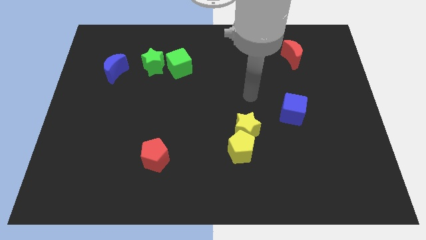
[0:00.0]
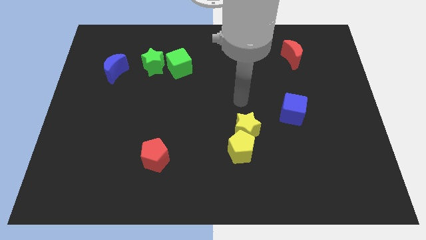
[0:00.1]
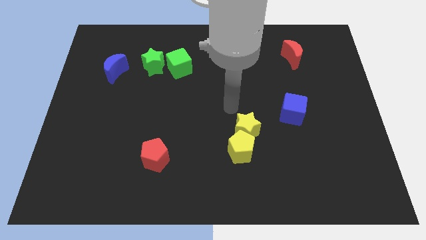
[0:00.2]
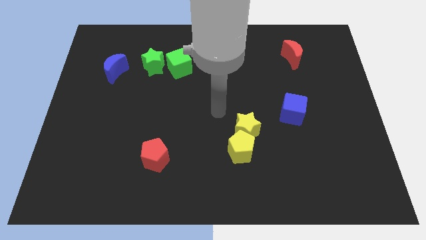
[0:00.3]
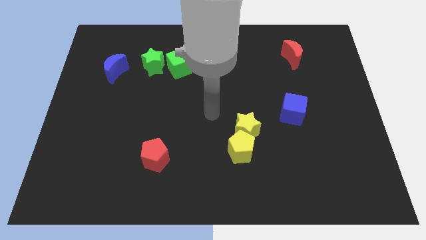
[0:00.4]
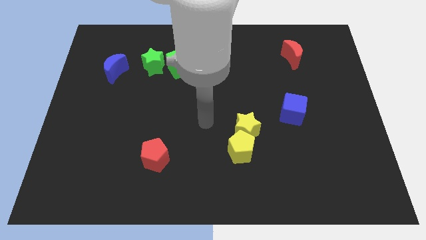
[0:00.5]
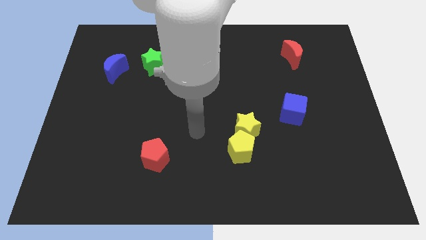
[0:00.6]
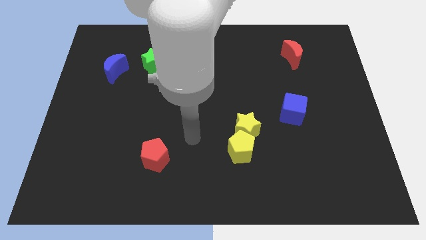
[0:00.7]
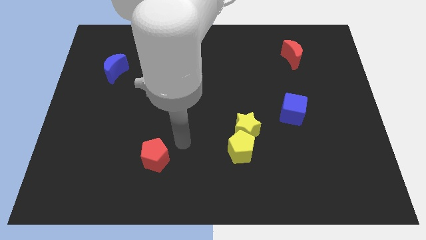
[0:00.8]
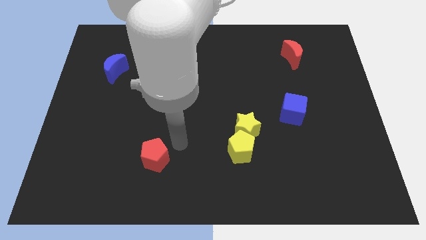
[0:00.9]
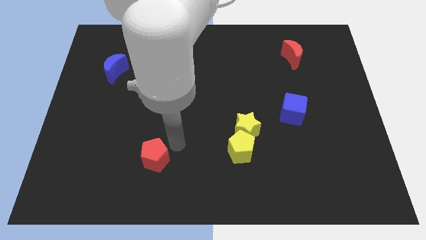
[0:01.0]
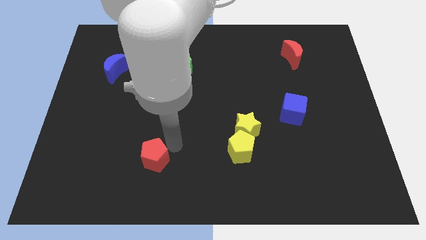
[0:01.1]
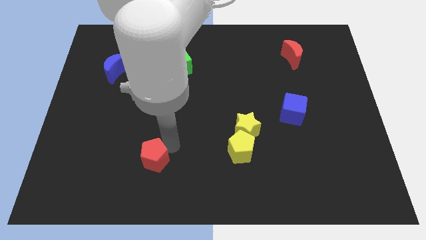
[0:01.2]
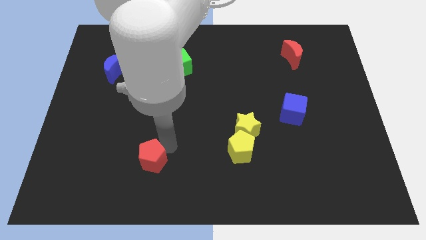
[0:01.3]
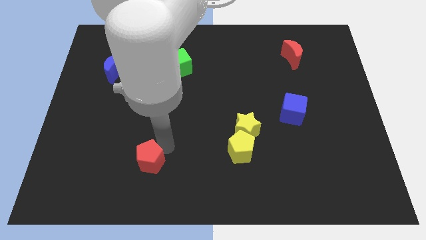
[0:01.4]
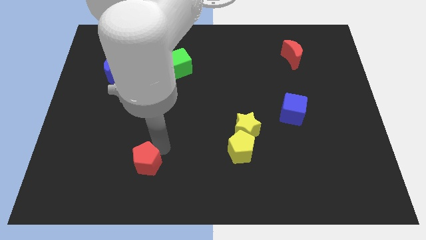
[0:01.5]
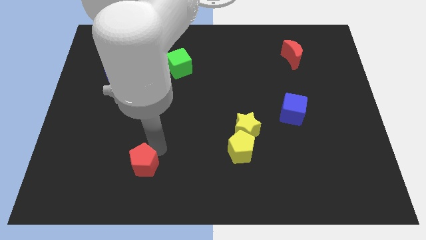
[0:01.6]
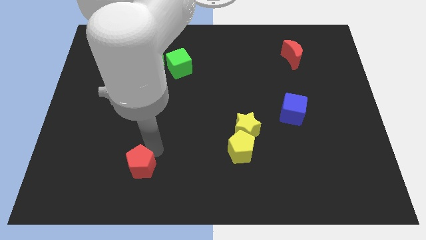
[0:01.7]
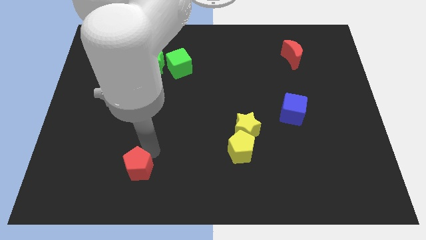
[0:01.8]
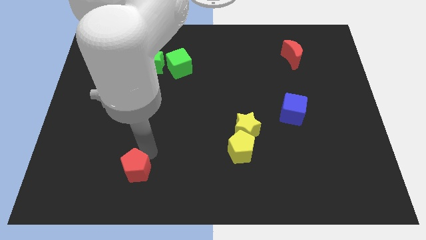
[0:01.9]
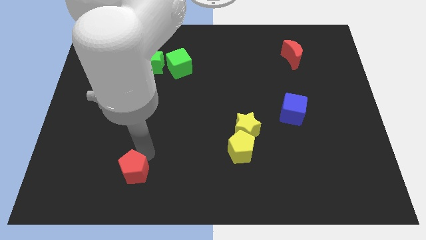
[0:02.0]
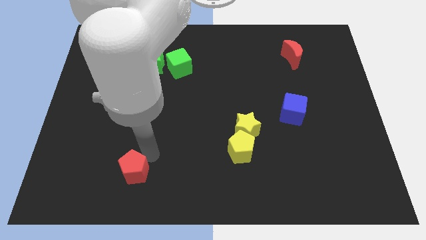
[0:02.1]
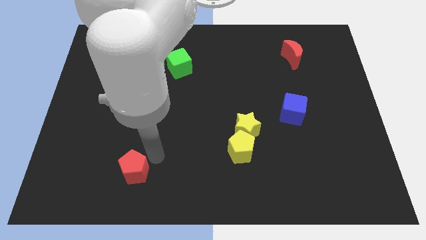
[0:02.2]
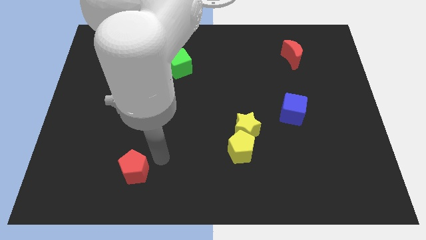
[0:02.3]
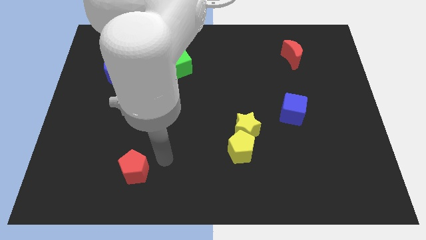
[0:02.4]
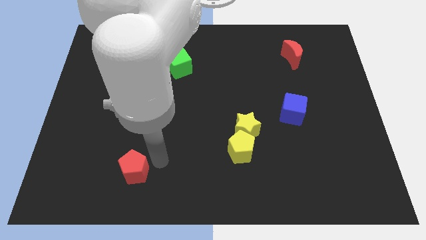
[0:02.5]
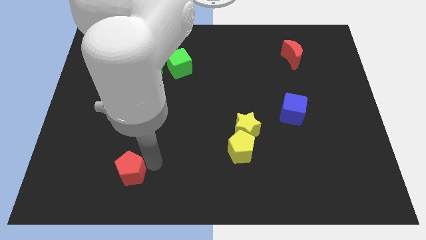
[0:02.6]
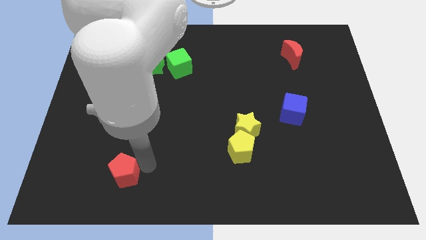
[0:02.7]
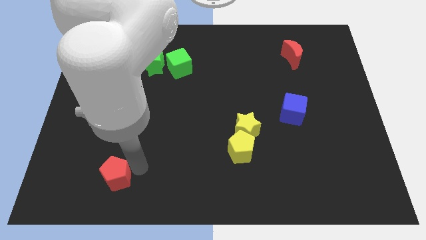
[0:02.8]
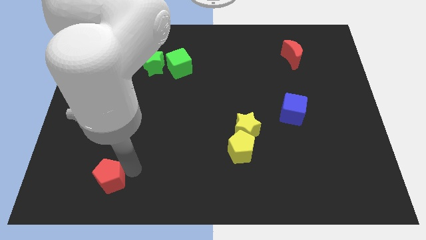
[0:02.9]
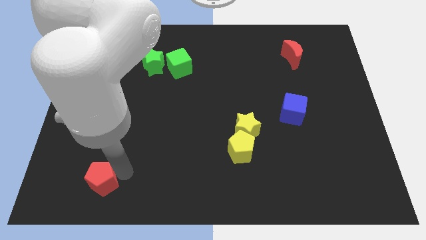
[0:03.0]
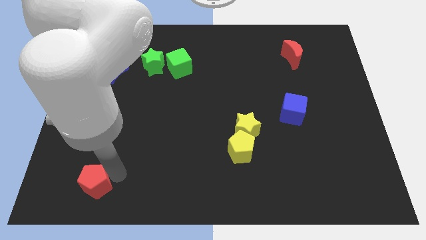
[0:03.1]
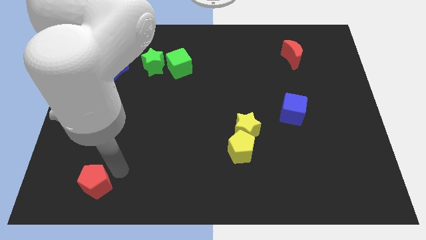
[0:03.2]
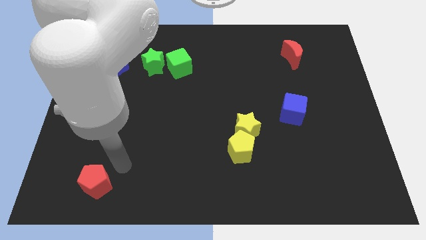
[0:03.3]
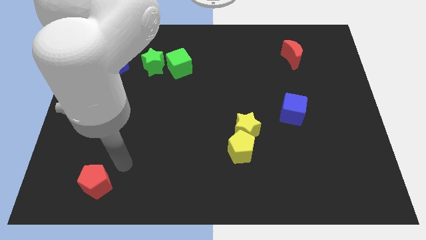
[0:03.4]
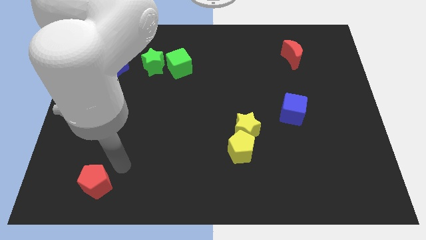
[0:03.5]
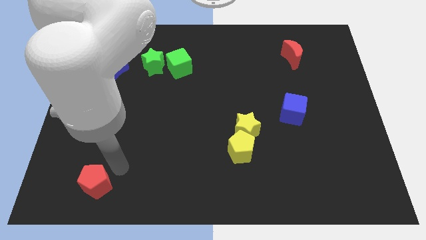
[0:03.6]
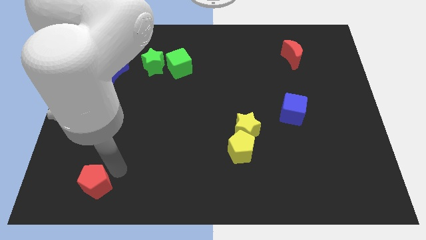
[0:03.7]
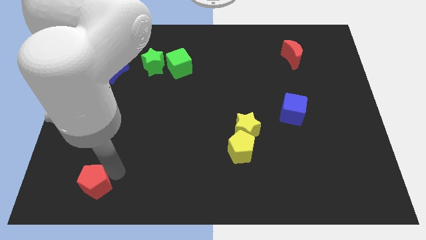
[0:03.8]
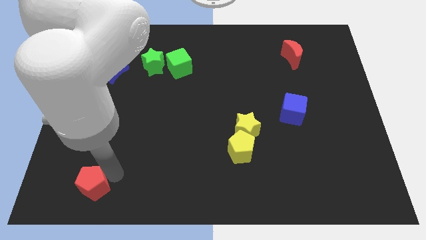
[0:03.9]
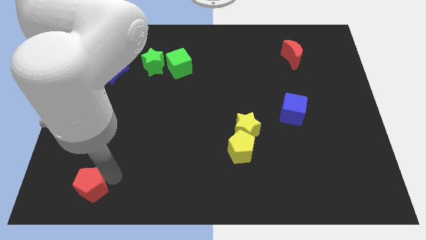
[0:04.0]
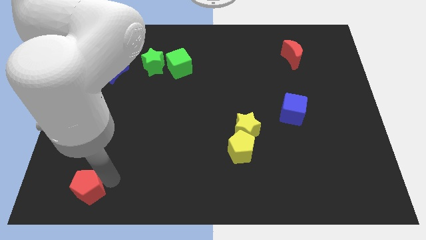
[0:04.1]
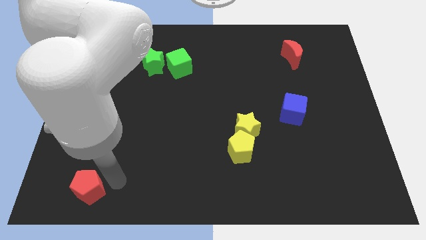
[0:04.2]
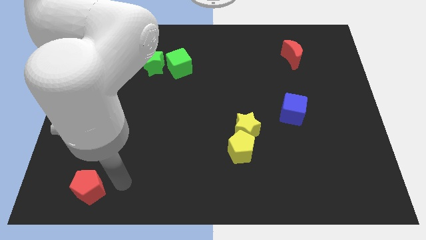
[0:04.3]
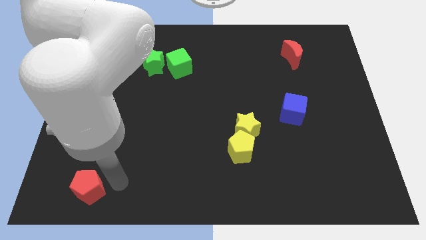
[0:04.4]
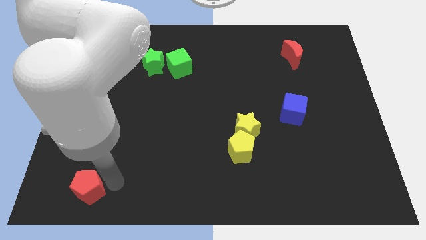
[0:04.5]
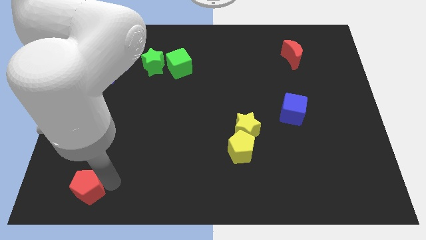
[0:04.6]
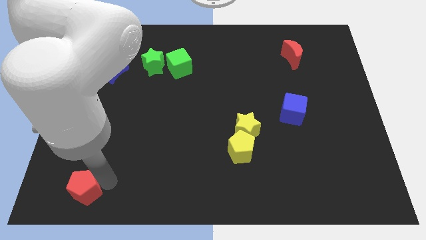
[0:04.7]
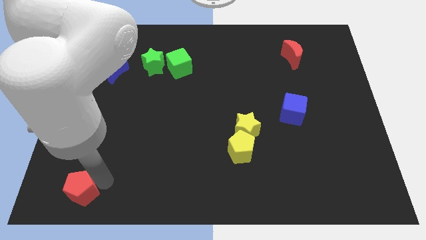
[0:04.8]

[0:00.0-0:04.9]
put the red pentagon to the bottom left corner

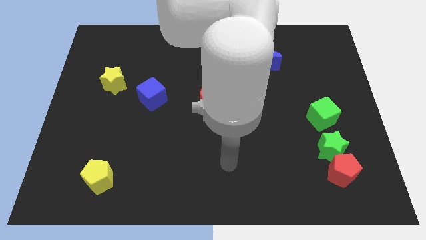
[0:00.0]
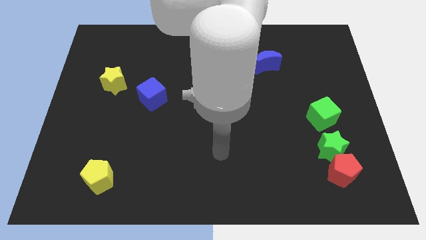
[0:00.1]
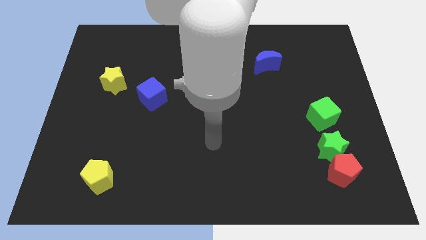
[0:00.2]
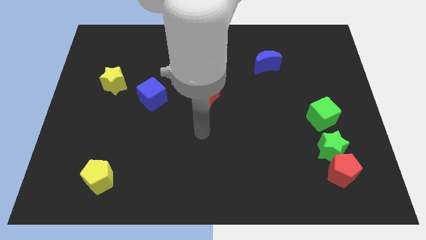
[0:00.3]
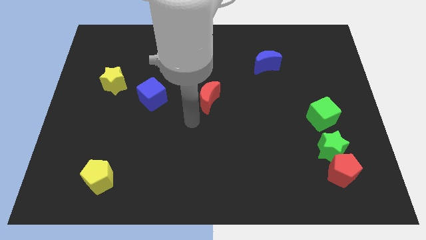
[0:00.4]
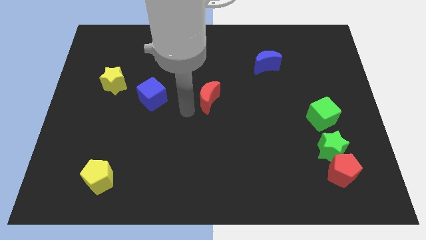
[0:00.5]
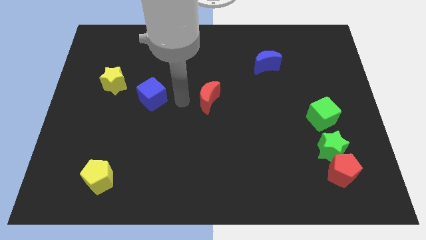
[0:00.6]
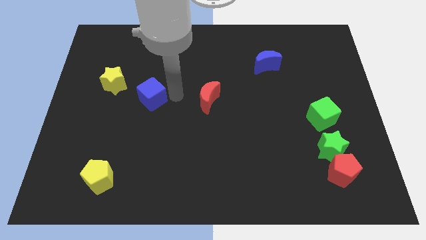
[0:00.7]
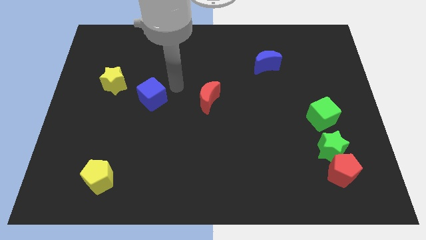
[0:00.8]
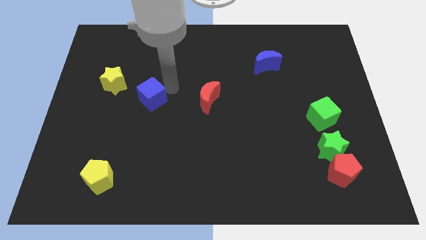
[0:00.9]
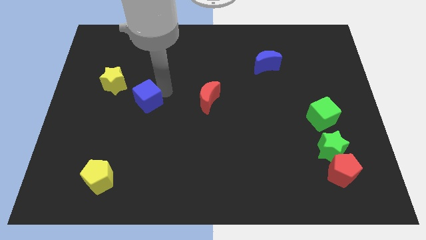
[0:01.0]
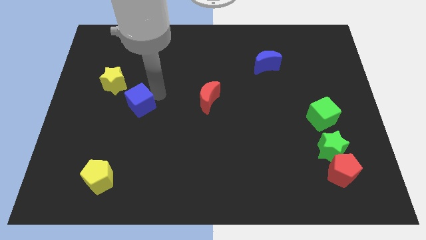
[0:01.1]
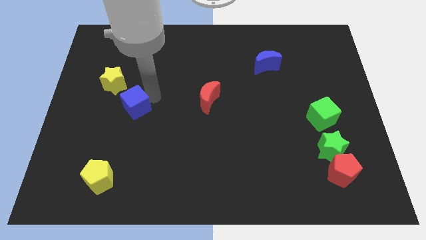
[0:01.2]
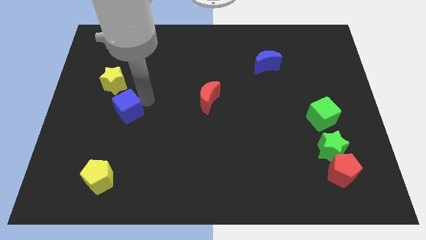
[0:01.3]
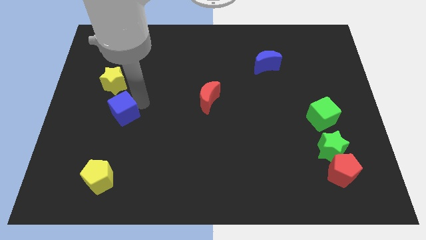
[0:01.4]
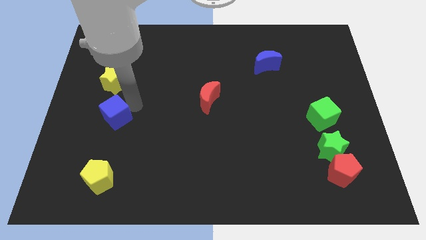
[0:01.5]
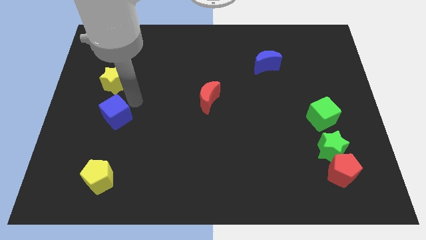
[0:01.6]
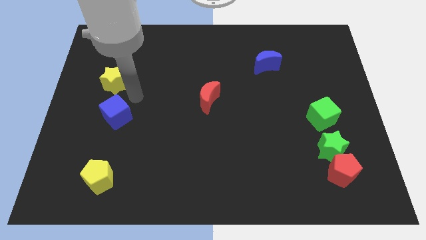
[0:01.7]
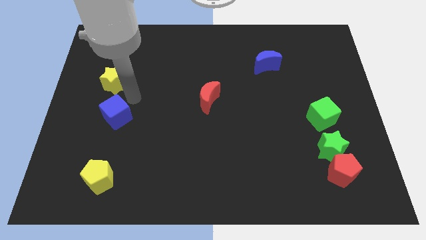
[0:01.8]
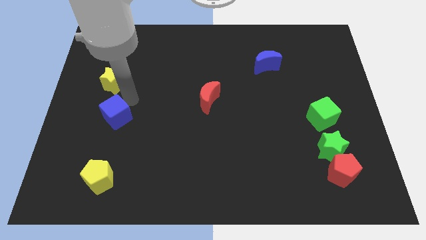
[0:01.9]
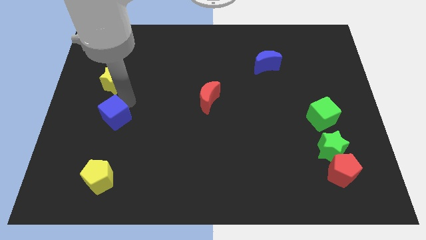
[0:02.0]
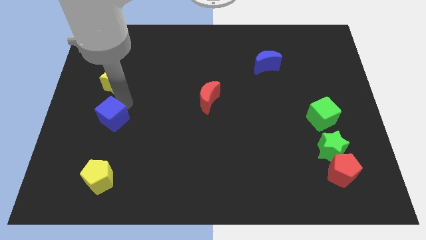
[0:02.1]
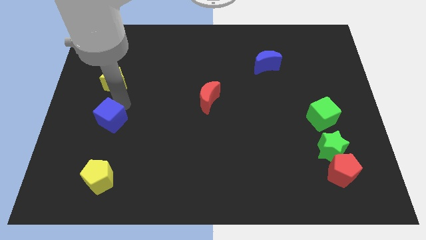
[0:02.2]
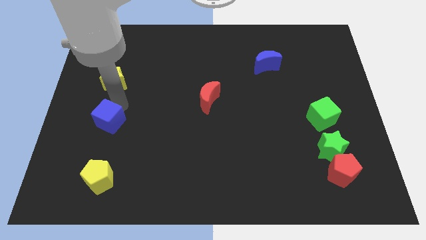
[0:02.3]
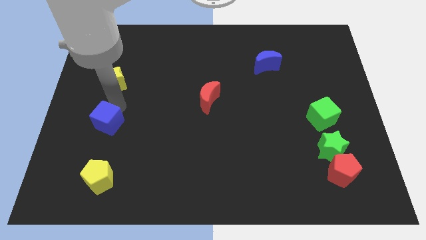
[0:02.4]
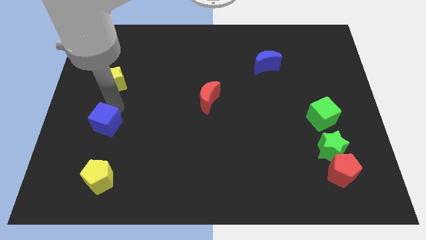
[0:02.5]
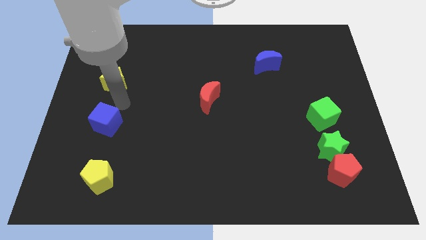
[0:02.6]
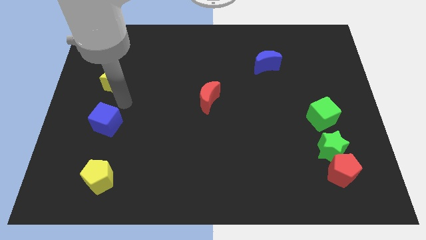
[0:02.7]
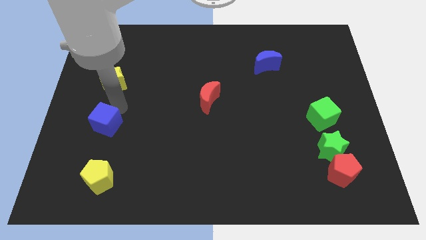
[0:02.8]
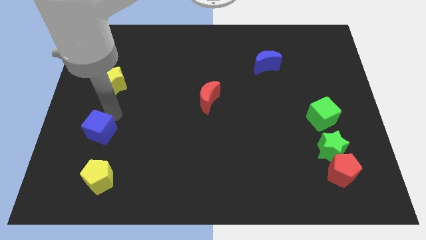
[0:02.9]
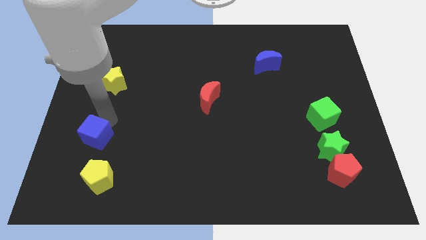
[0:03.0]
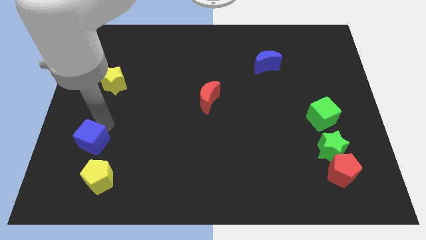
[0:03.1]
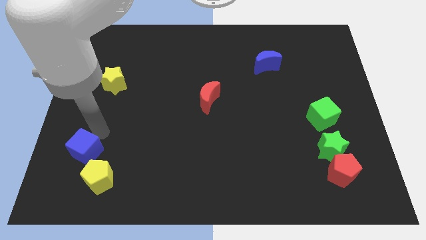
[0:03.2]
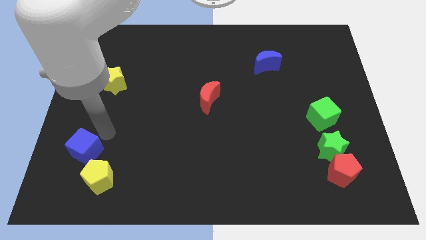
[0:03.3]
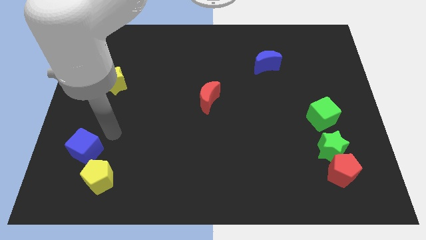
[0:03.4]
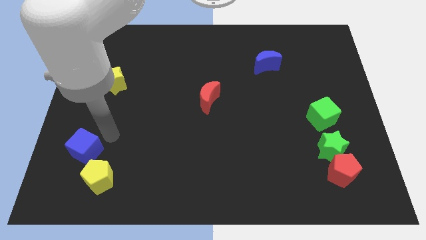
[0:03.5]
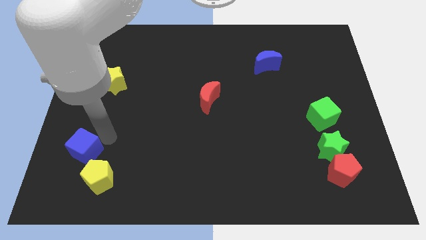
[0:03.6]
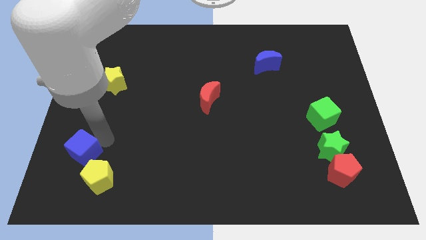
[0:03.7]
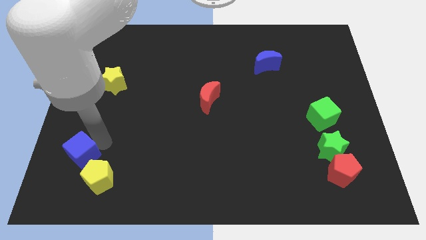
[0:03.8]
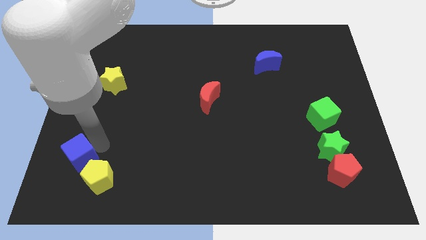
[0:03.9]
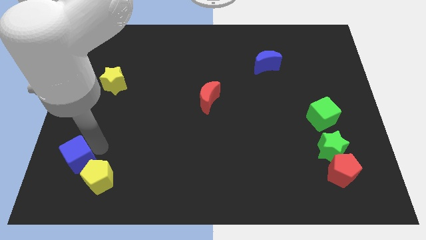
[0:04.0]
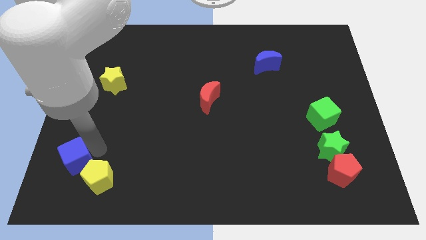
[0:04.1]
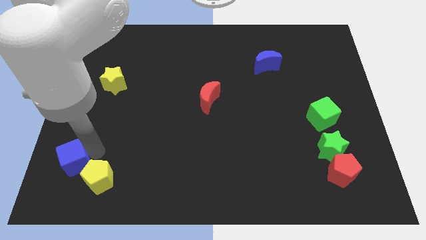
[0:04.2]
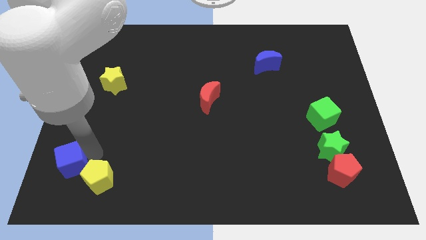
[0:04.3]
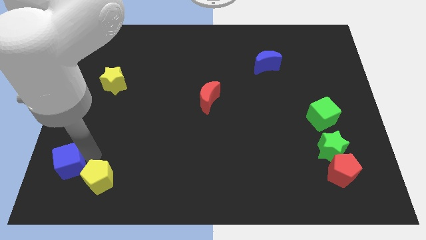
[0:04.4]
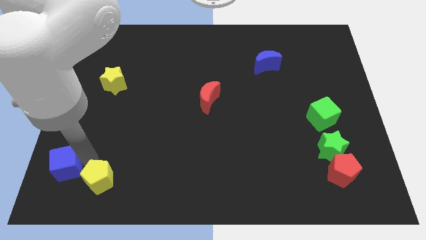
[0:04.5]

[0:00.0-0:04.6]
put the blue cube to the bottom left of the board
